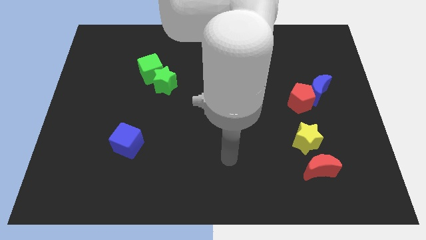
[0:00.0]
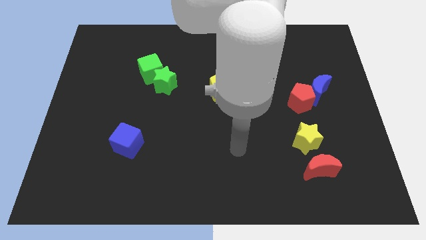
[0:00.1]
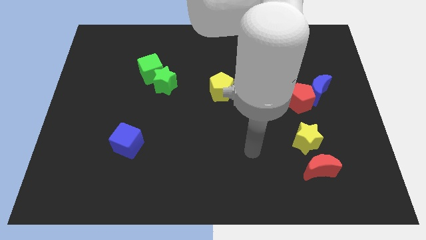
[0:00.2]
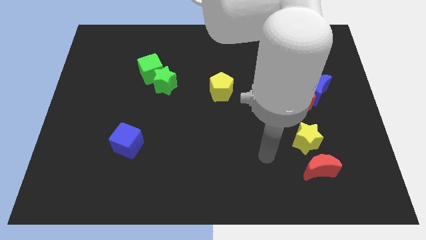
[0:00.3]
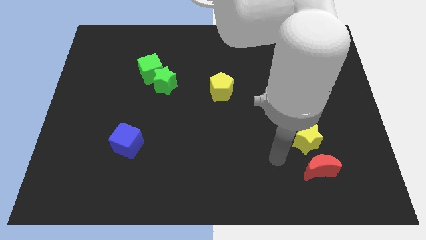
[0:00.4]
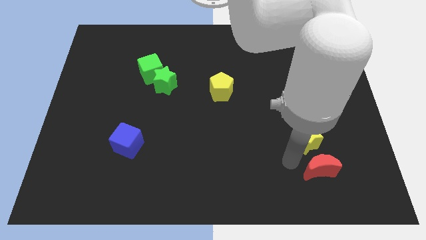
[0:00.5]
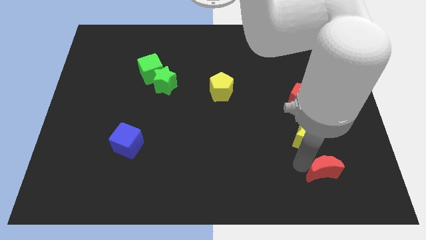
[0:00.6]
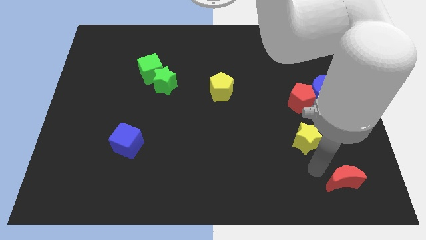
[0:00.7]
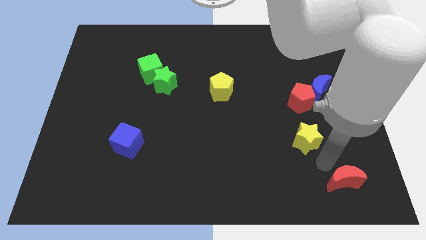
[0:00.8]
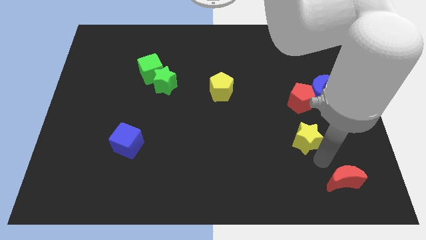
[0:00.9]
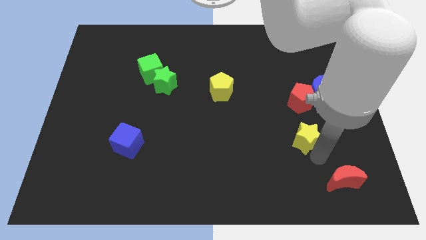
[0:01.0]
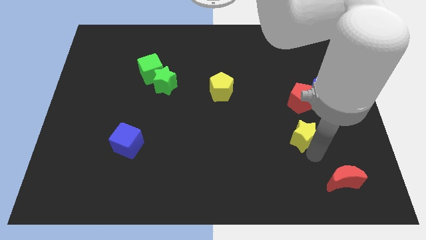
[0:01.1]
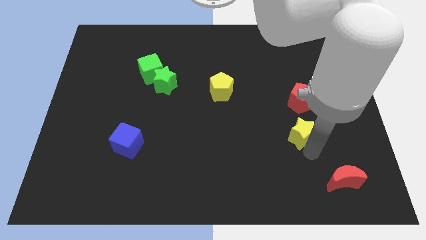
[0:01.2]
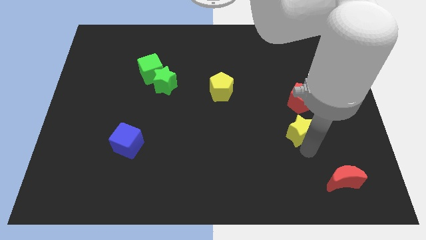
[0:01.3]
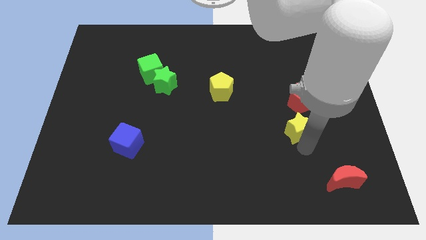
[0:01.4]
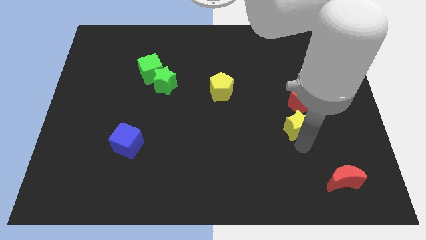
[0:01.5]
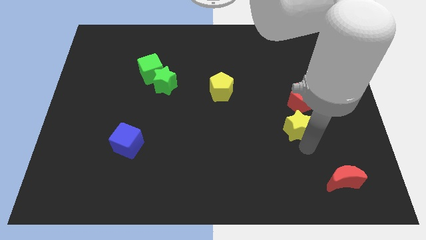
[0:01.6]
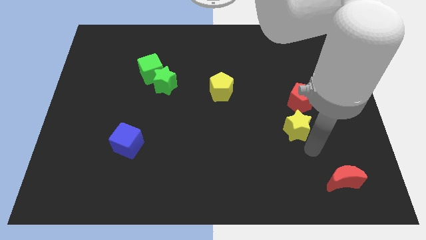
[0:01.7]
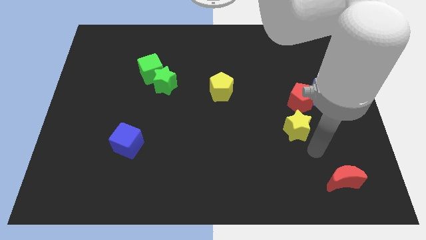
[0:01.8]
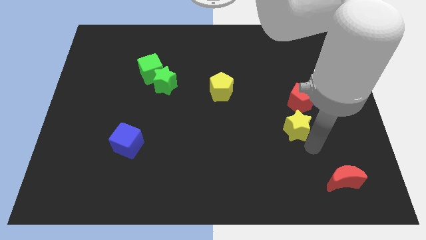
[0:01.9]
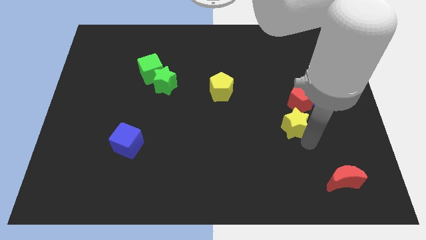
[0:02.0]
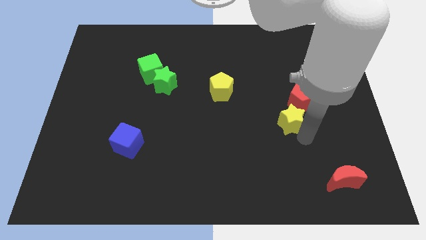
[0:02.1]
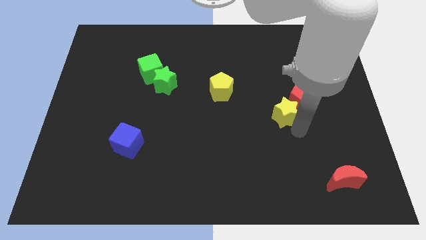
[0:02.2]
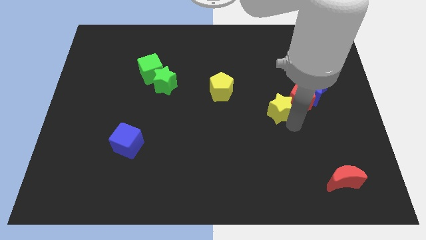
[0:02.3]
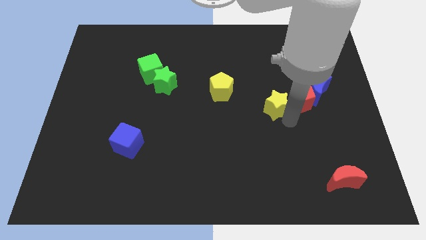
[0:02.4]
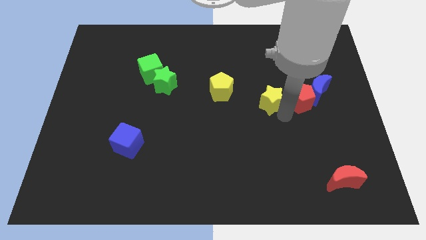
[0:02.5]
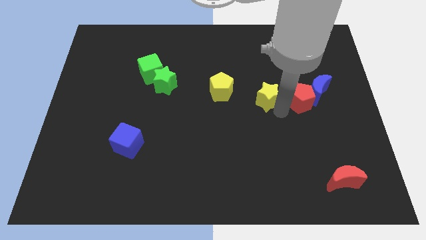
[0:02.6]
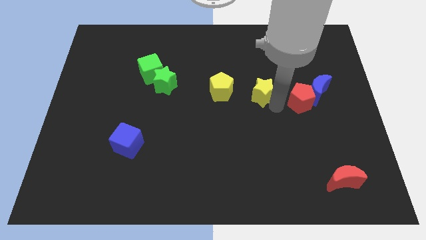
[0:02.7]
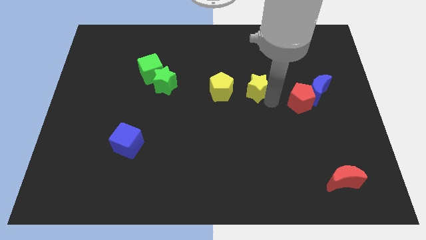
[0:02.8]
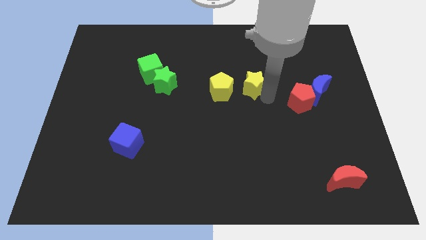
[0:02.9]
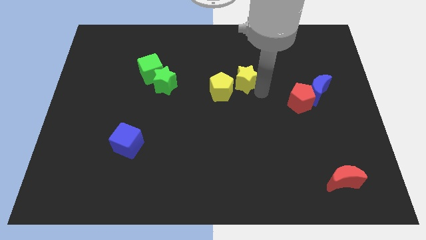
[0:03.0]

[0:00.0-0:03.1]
slide the yellow star upwards and then to the left

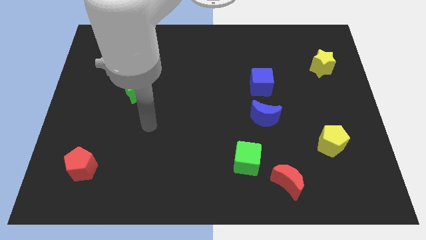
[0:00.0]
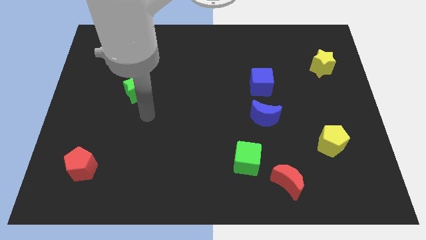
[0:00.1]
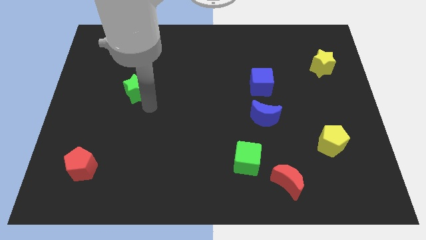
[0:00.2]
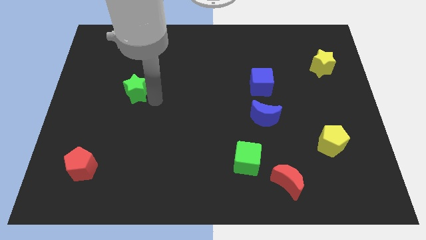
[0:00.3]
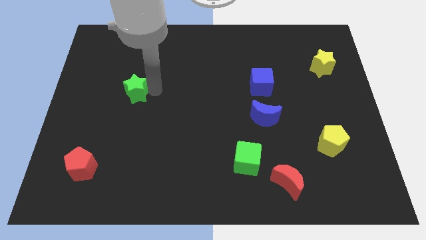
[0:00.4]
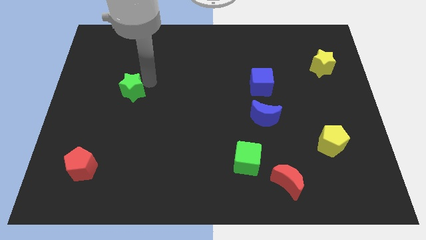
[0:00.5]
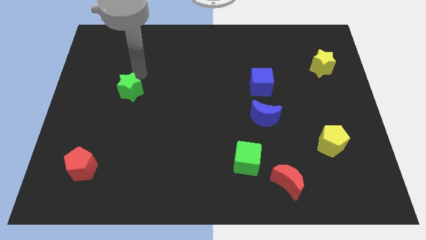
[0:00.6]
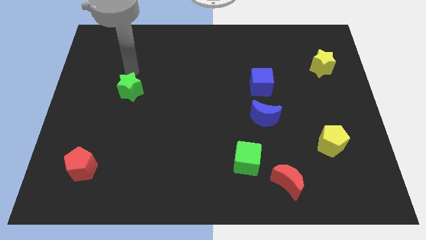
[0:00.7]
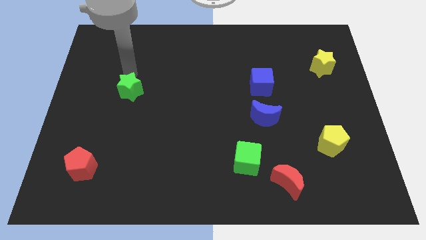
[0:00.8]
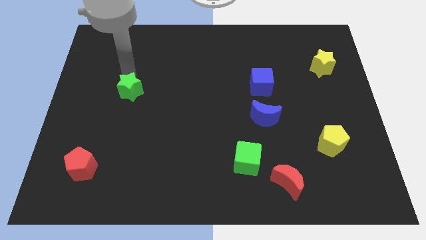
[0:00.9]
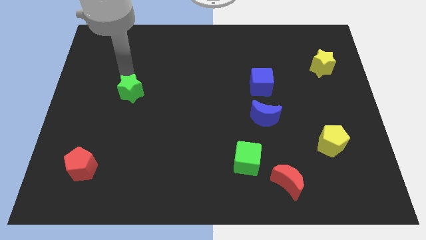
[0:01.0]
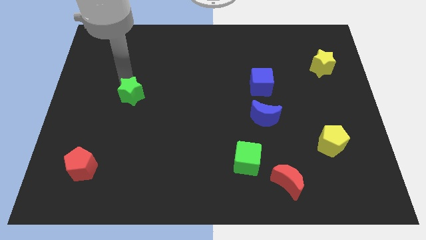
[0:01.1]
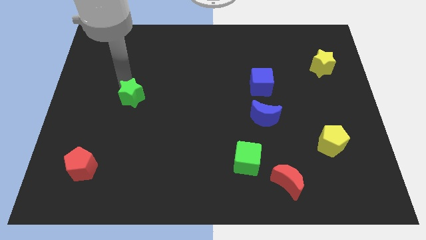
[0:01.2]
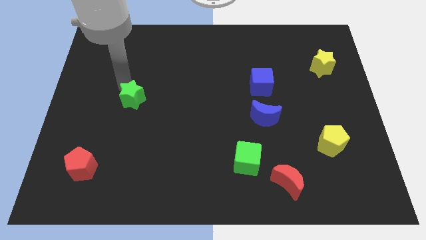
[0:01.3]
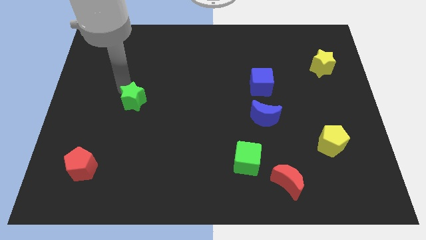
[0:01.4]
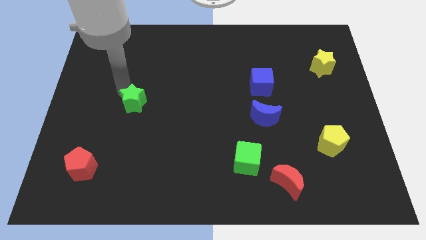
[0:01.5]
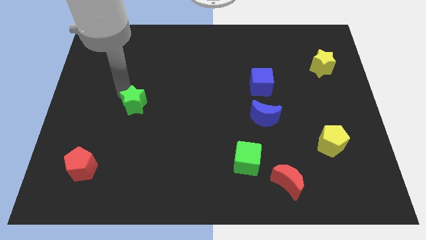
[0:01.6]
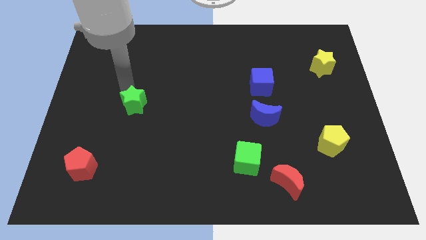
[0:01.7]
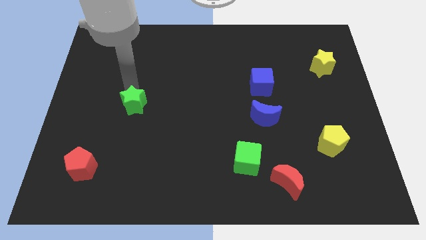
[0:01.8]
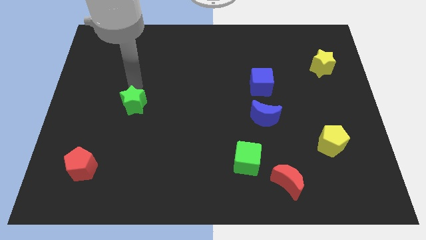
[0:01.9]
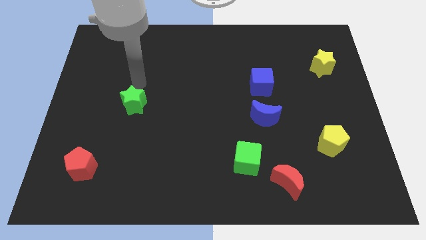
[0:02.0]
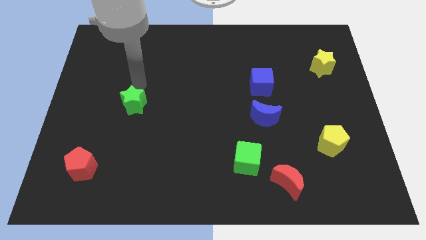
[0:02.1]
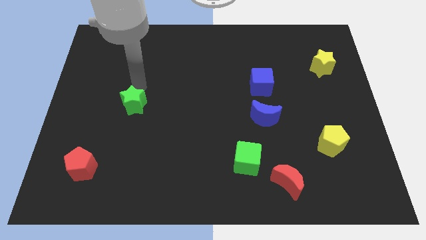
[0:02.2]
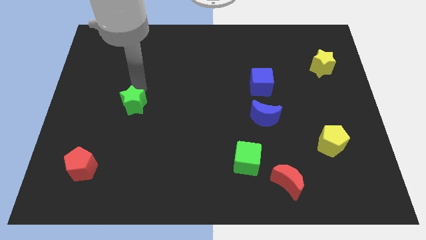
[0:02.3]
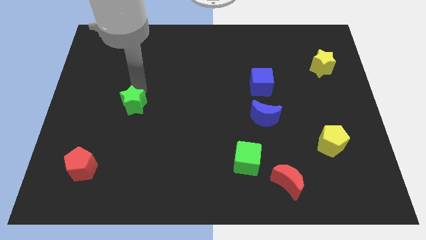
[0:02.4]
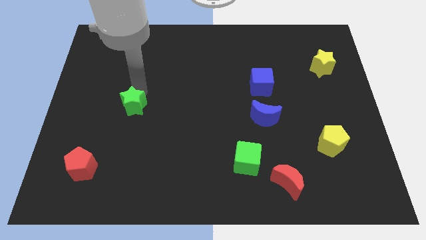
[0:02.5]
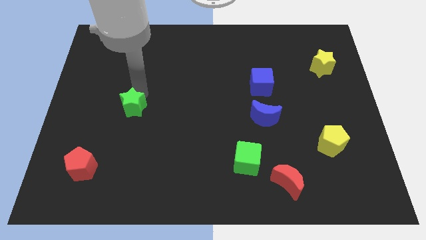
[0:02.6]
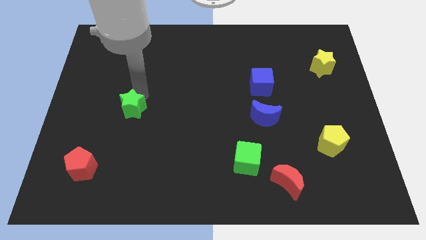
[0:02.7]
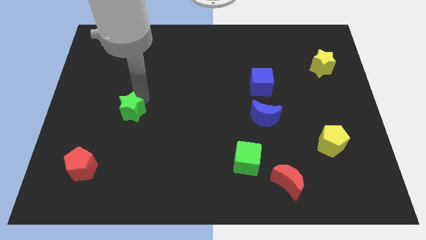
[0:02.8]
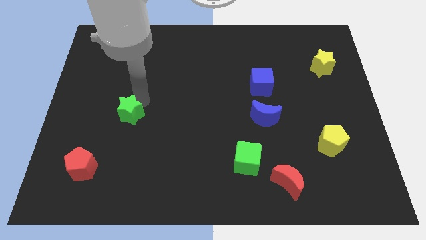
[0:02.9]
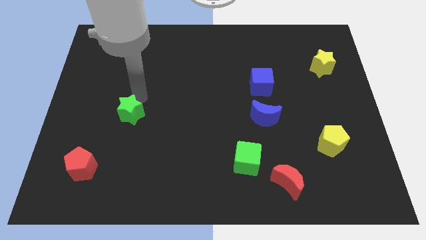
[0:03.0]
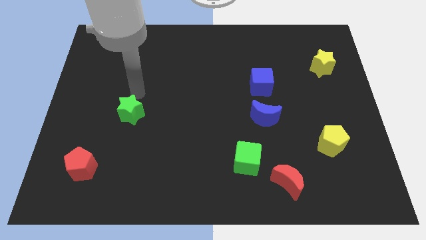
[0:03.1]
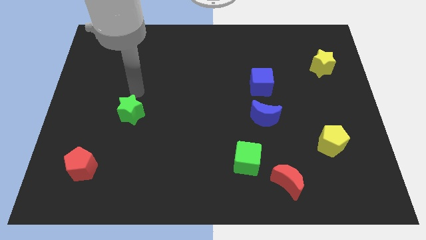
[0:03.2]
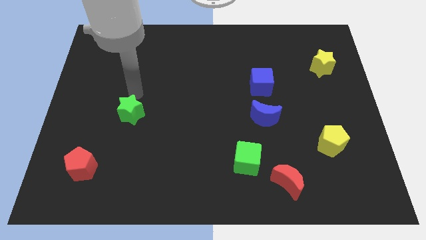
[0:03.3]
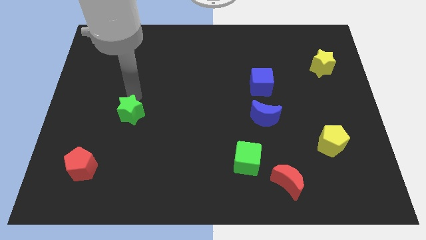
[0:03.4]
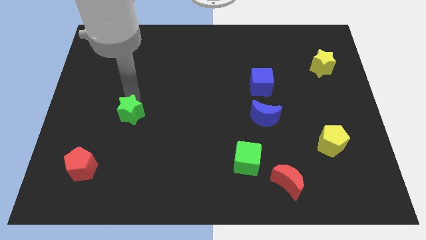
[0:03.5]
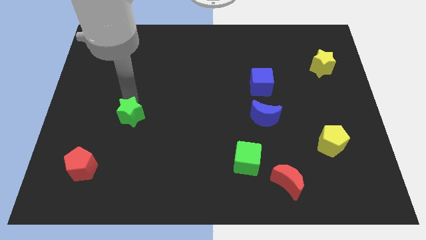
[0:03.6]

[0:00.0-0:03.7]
move the green star down somewhat

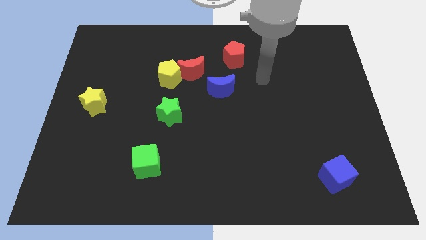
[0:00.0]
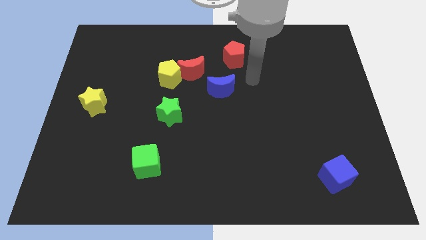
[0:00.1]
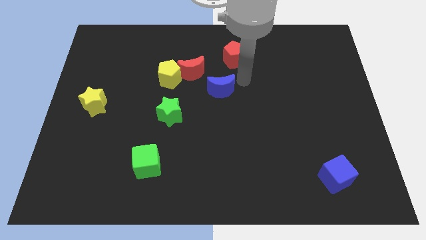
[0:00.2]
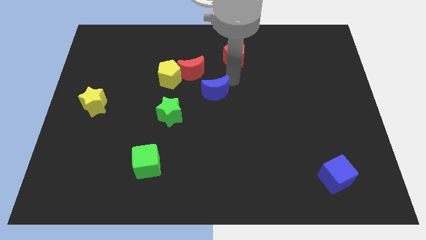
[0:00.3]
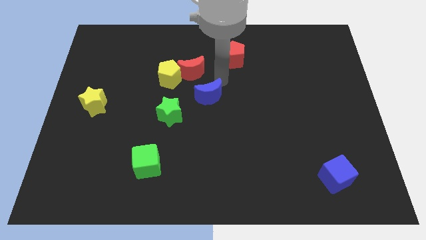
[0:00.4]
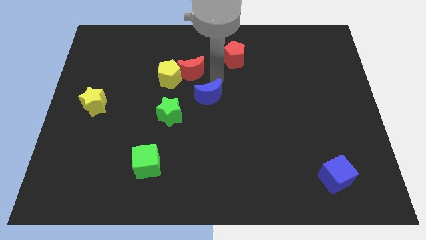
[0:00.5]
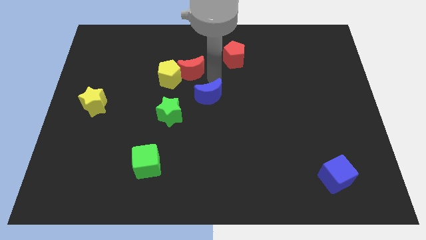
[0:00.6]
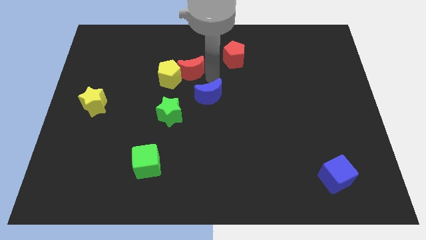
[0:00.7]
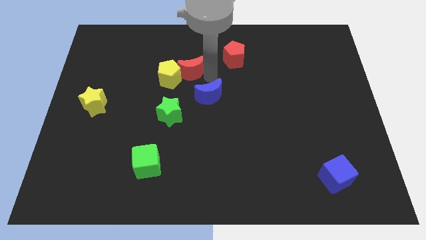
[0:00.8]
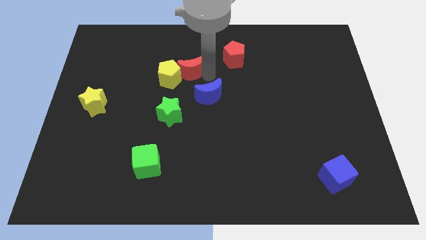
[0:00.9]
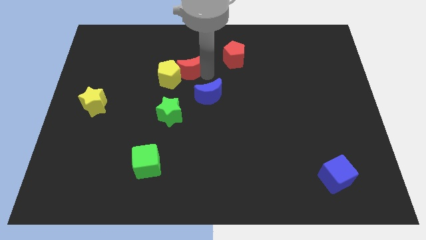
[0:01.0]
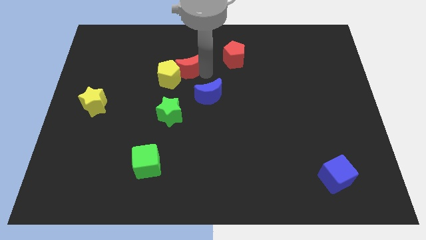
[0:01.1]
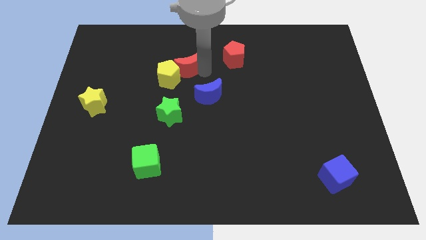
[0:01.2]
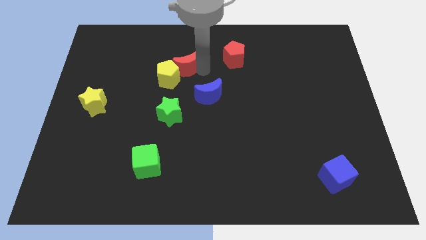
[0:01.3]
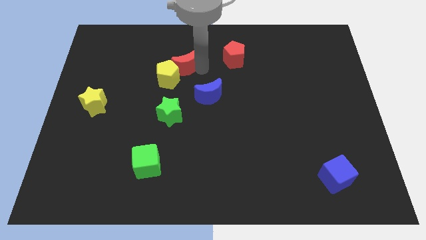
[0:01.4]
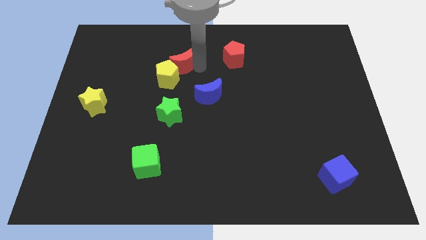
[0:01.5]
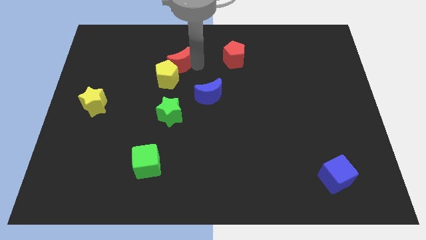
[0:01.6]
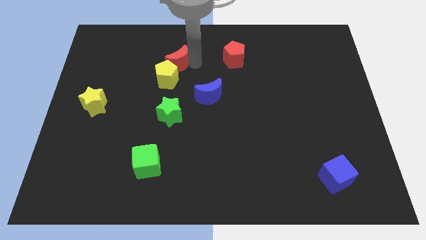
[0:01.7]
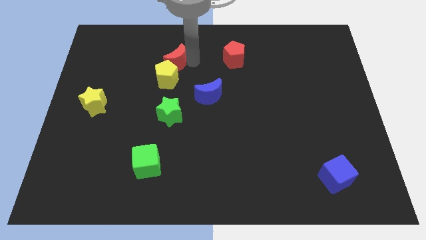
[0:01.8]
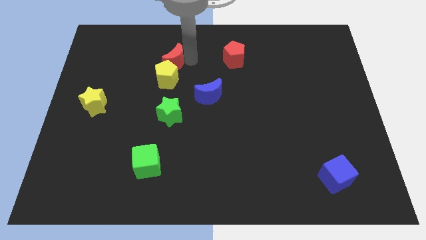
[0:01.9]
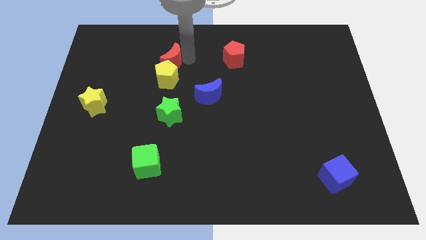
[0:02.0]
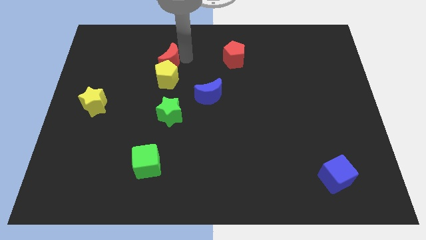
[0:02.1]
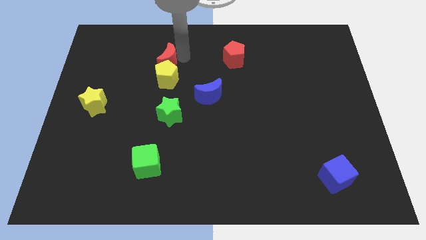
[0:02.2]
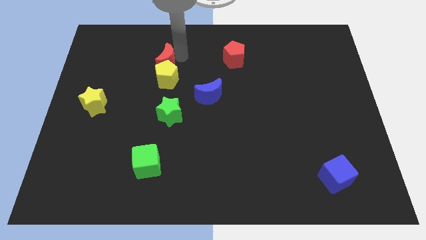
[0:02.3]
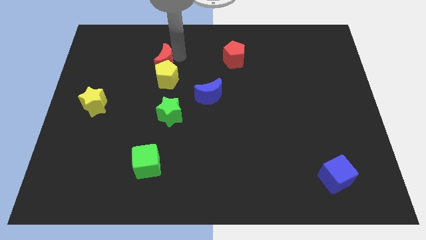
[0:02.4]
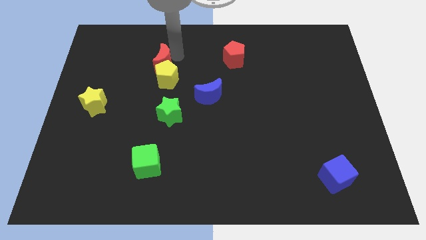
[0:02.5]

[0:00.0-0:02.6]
move the red moon a little left
